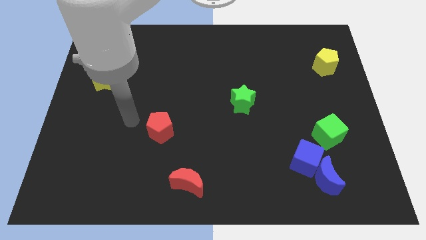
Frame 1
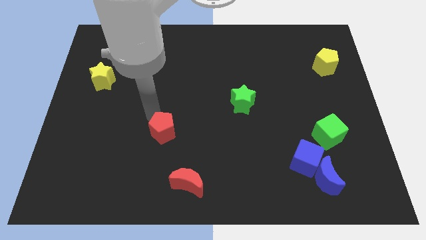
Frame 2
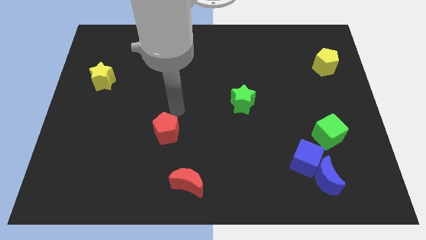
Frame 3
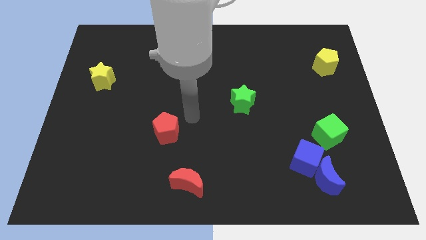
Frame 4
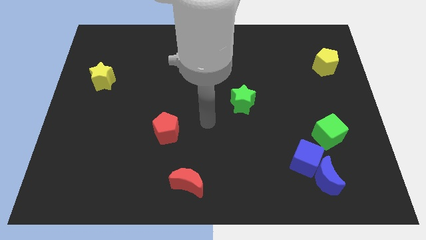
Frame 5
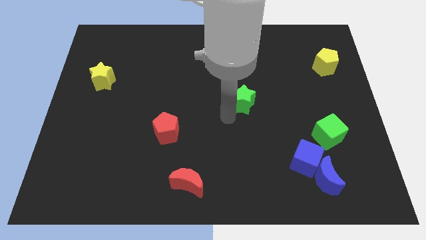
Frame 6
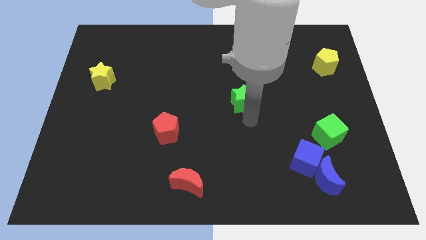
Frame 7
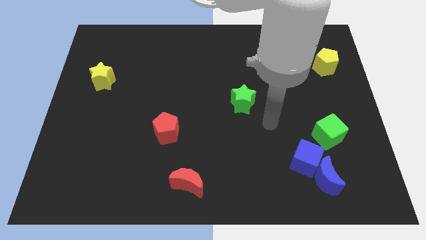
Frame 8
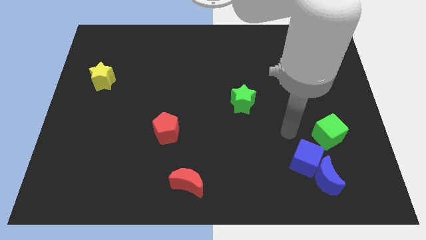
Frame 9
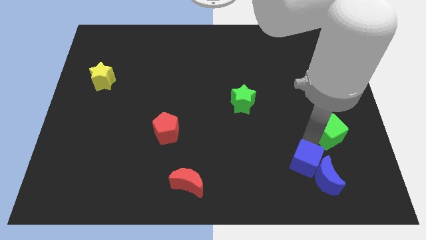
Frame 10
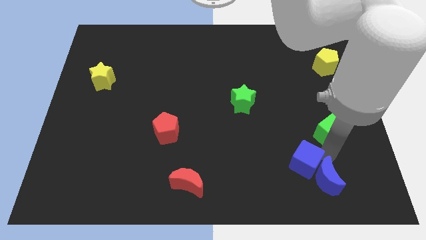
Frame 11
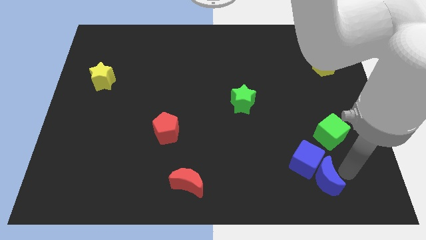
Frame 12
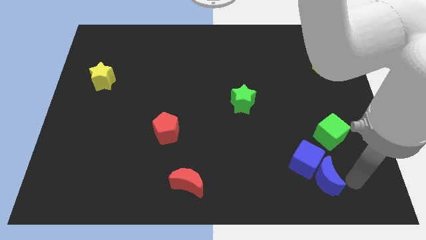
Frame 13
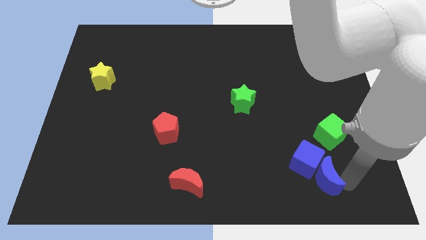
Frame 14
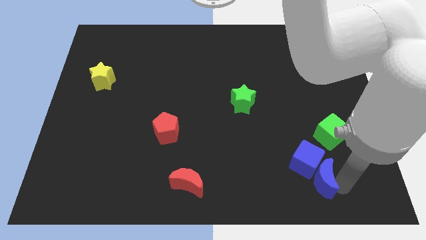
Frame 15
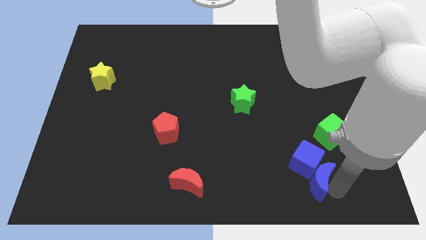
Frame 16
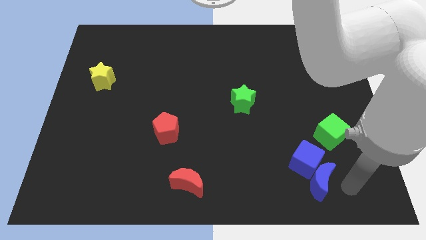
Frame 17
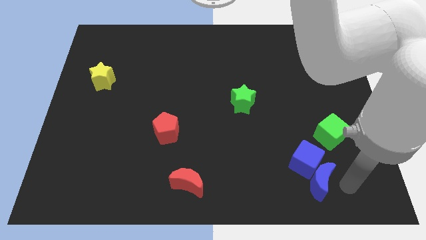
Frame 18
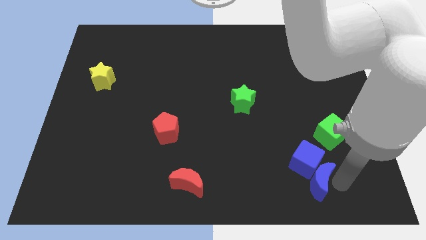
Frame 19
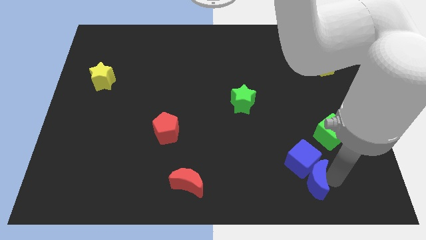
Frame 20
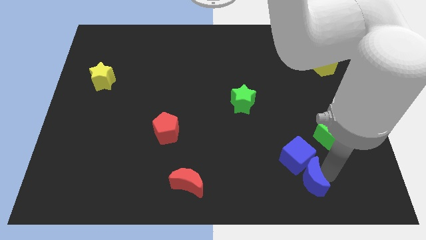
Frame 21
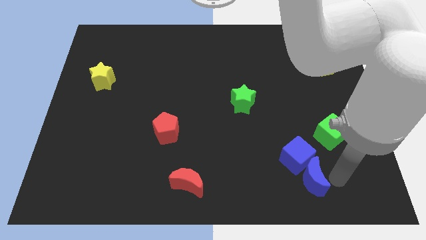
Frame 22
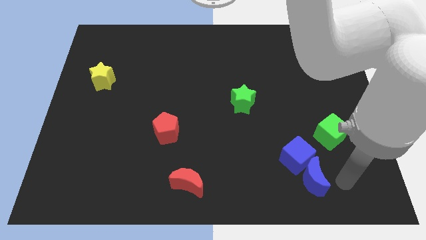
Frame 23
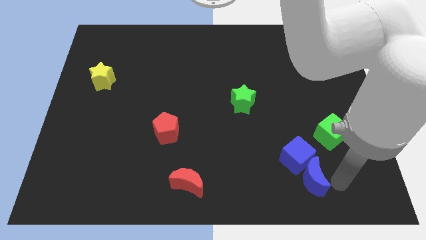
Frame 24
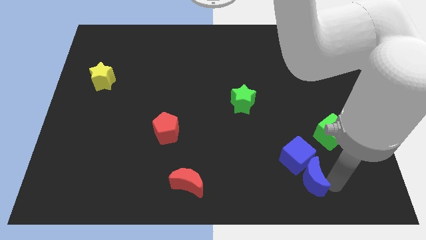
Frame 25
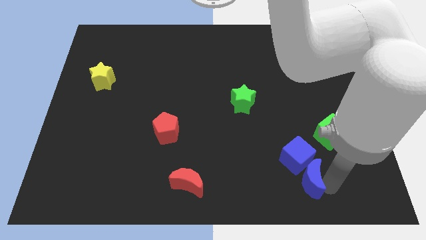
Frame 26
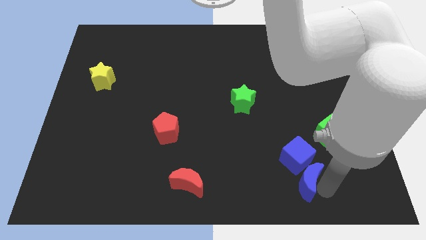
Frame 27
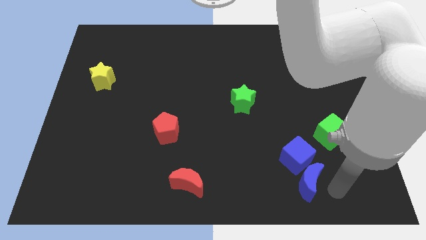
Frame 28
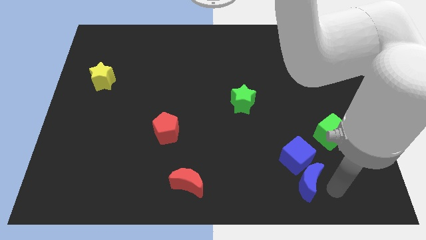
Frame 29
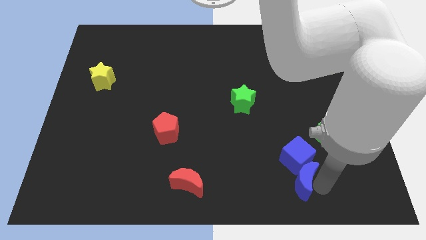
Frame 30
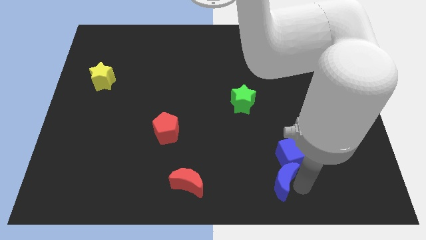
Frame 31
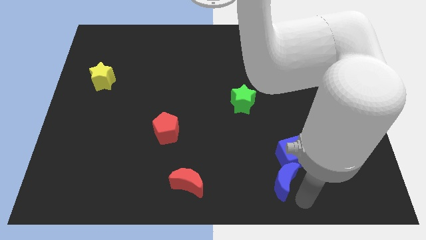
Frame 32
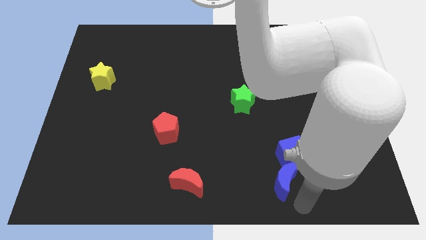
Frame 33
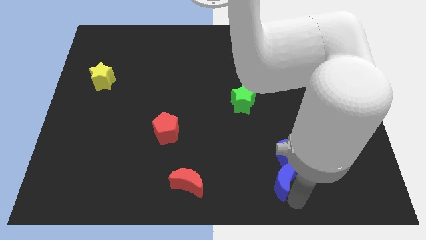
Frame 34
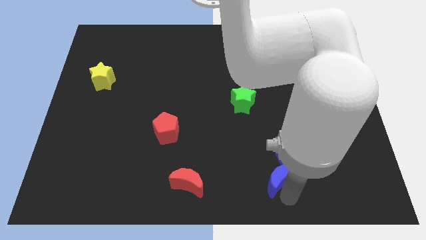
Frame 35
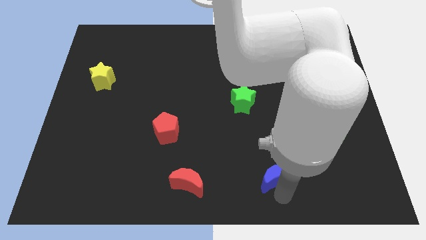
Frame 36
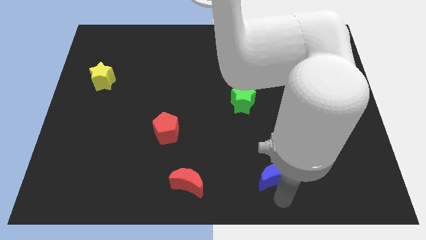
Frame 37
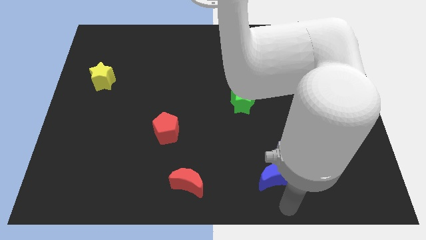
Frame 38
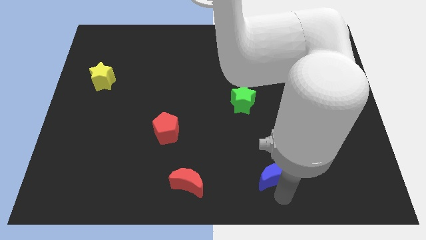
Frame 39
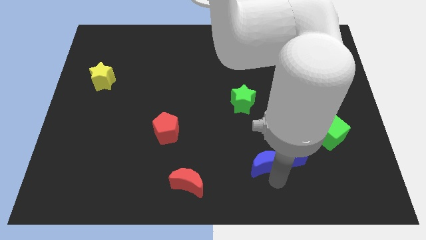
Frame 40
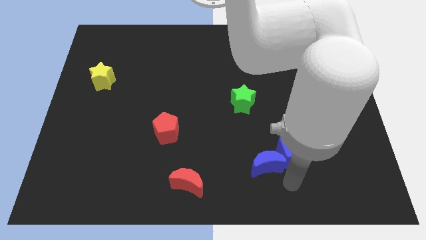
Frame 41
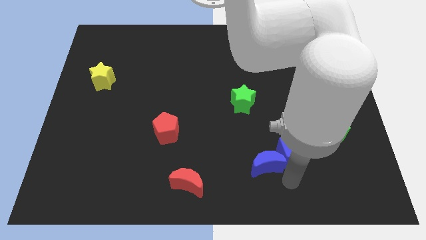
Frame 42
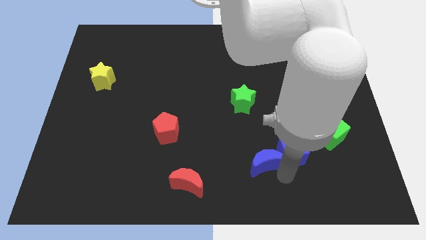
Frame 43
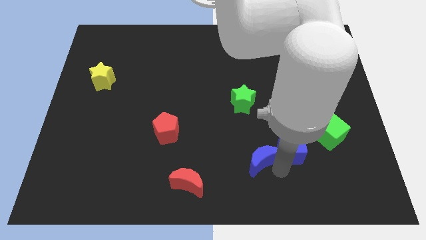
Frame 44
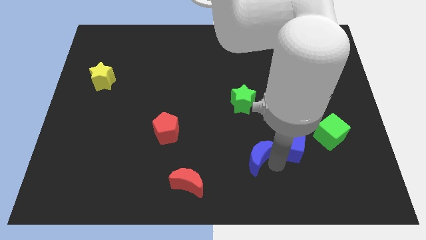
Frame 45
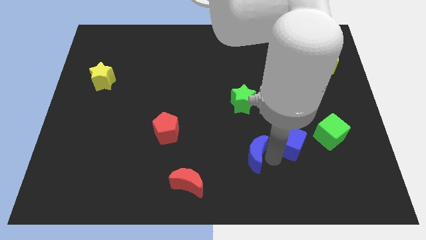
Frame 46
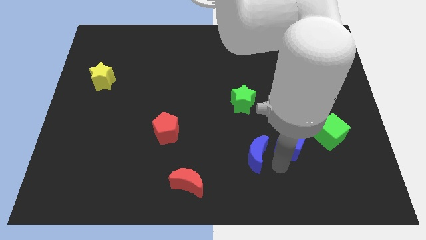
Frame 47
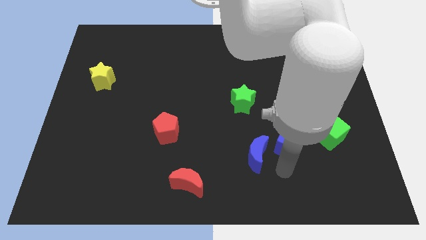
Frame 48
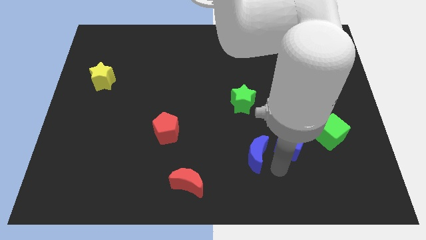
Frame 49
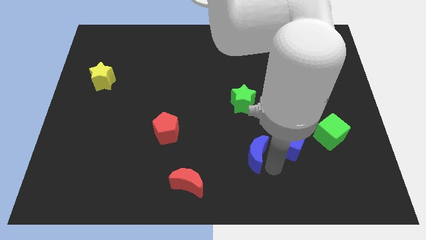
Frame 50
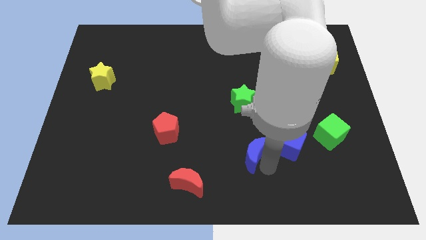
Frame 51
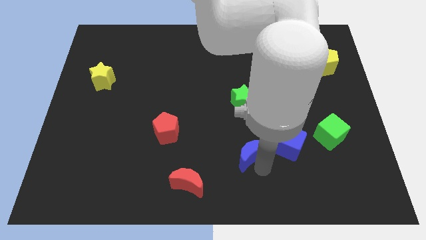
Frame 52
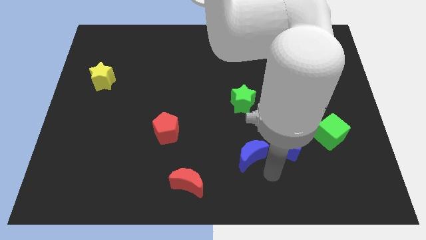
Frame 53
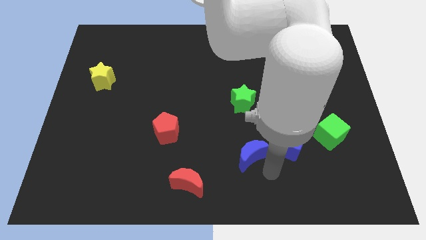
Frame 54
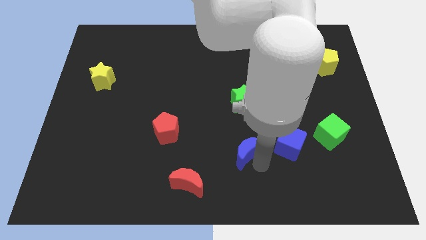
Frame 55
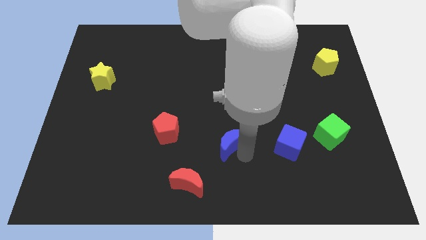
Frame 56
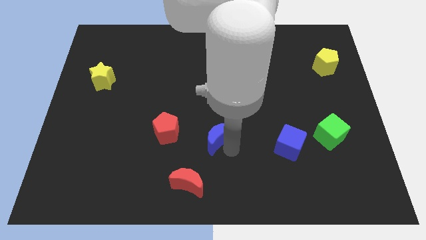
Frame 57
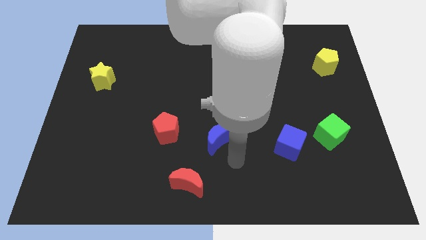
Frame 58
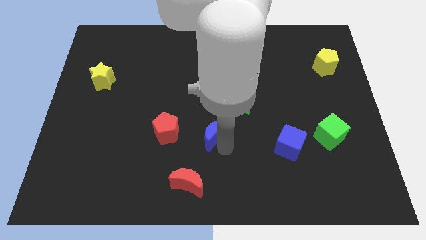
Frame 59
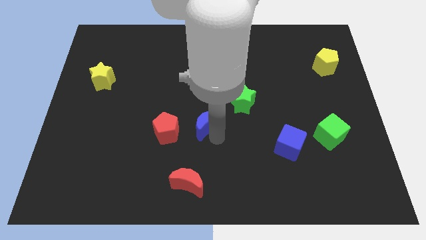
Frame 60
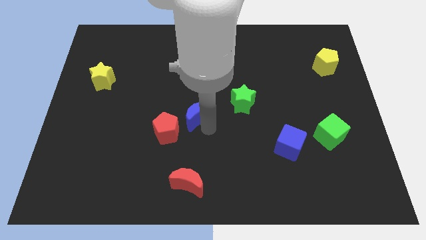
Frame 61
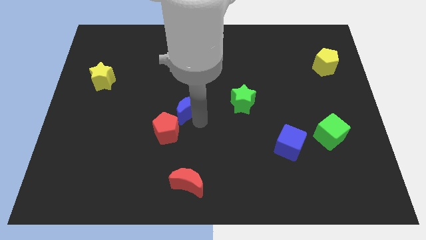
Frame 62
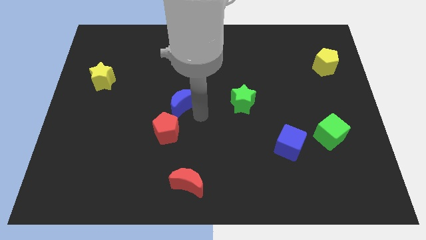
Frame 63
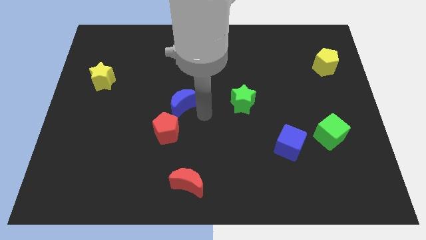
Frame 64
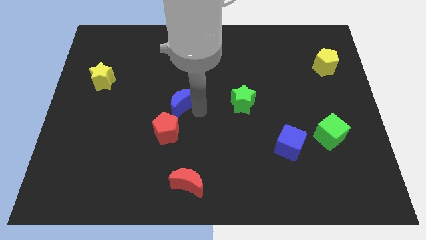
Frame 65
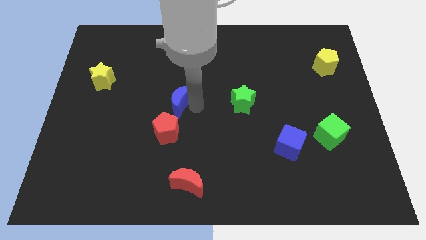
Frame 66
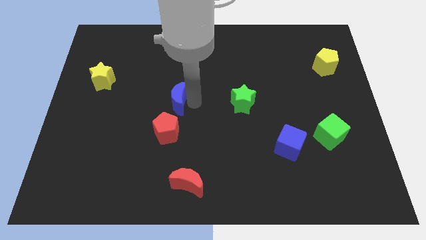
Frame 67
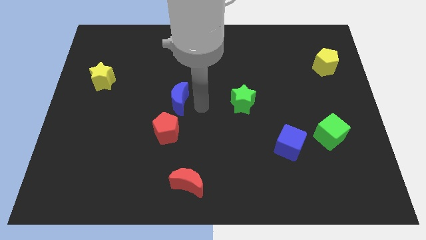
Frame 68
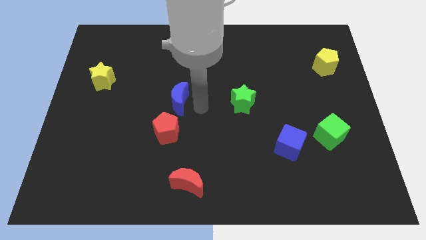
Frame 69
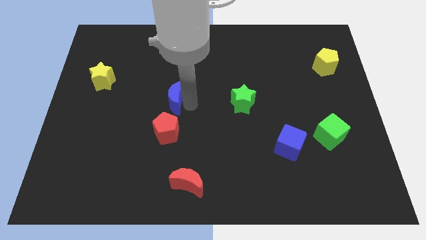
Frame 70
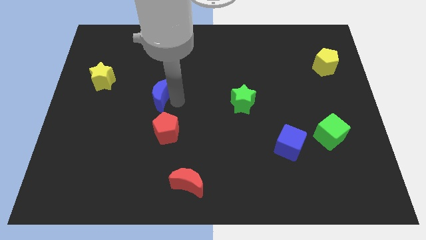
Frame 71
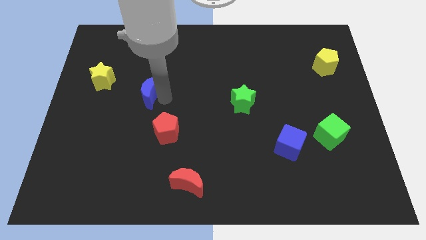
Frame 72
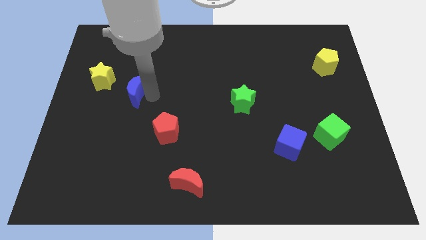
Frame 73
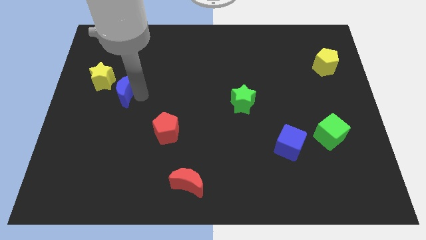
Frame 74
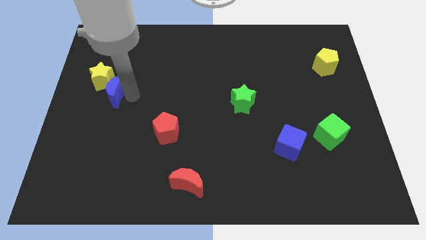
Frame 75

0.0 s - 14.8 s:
put the blue moon next to the yellow star
